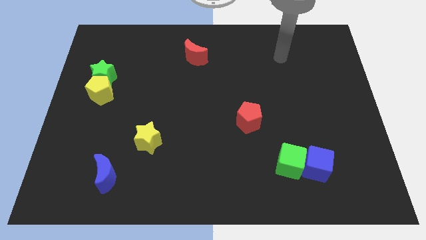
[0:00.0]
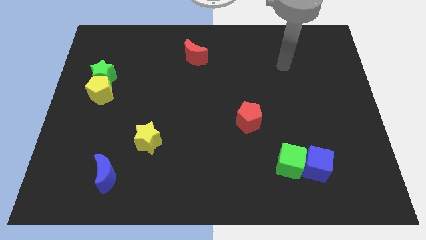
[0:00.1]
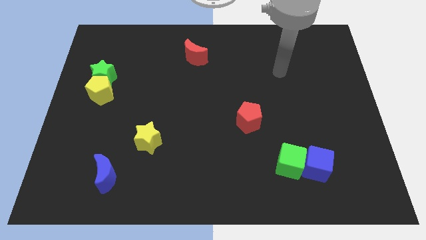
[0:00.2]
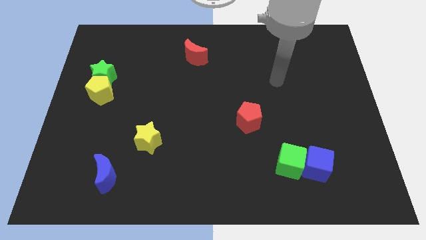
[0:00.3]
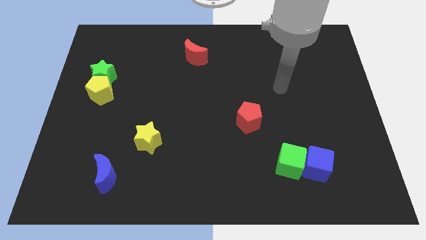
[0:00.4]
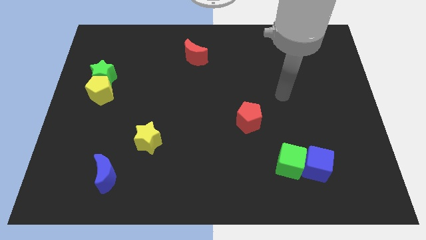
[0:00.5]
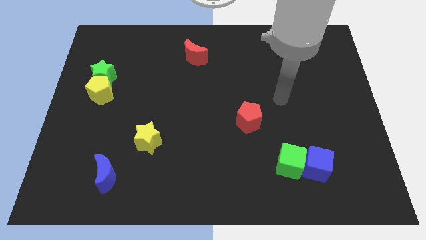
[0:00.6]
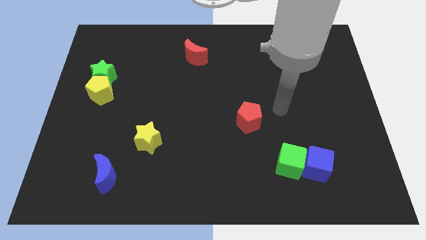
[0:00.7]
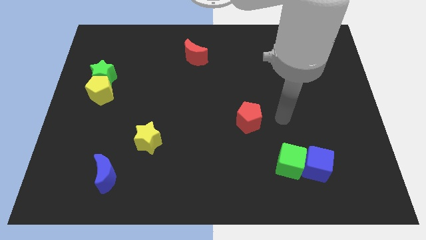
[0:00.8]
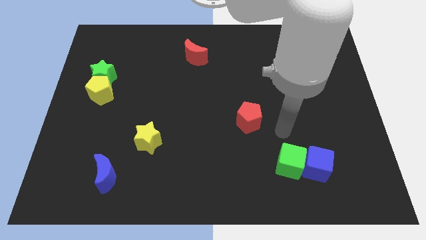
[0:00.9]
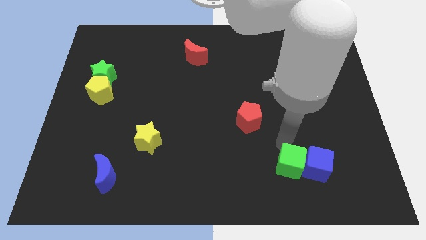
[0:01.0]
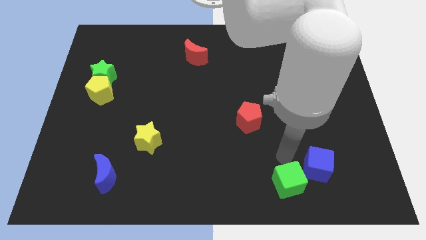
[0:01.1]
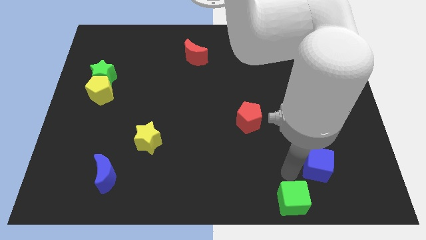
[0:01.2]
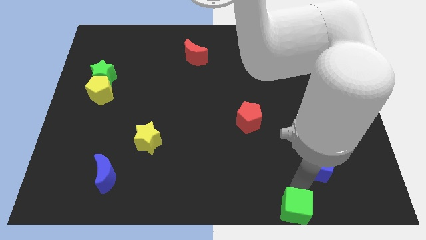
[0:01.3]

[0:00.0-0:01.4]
separate the blue cube from the green cube

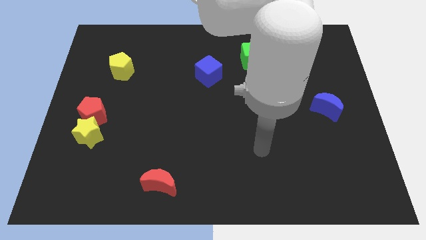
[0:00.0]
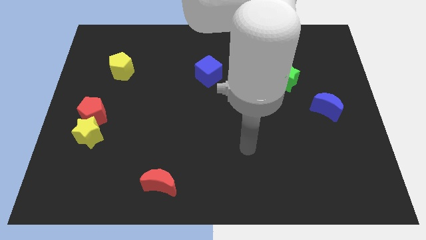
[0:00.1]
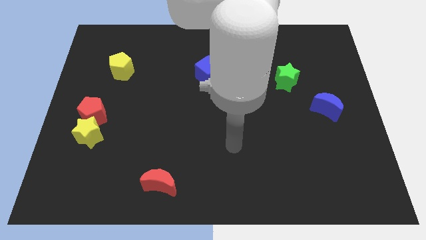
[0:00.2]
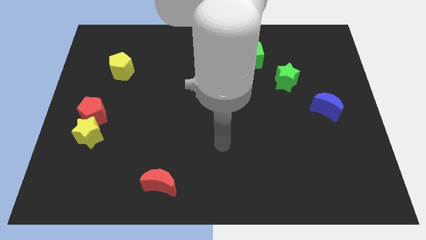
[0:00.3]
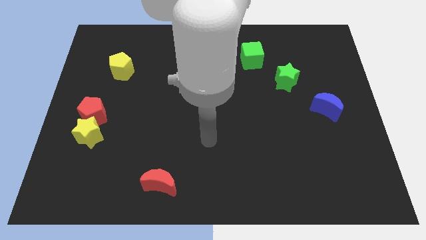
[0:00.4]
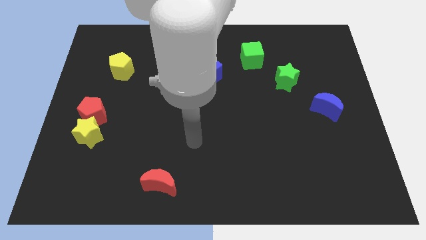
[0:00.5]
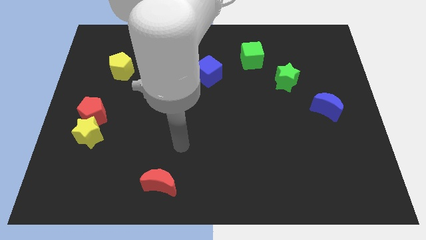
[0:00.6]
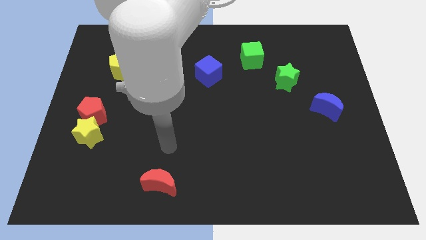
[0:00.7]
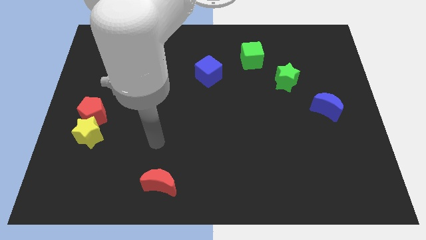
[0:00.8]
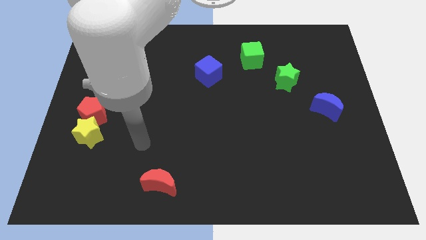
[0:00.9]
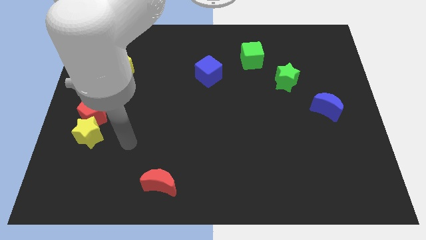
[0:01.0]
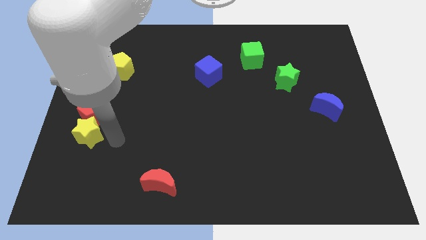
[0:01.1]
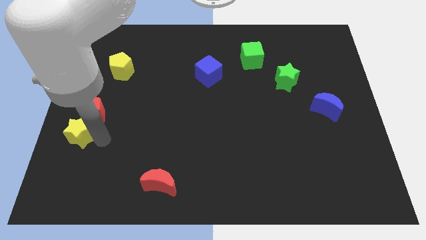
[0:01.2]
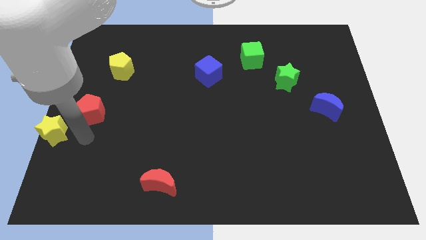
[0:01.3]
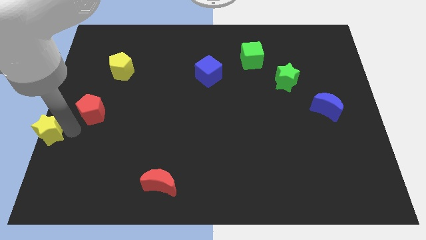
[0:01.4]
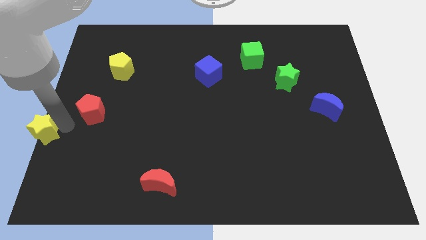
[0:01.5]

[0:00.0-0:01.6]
separate the red pentagon from the yellow star

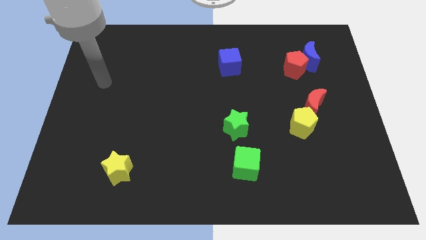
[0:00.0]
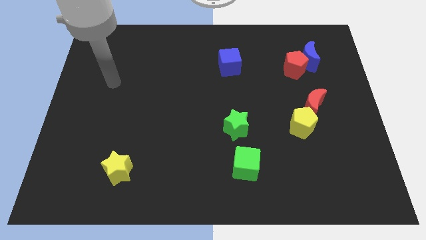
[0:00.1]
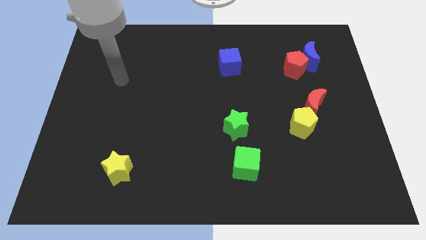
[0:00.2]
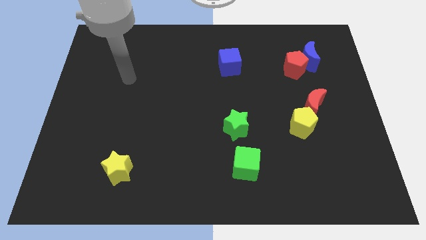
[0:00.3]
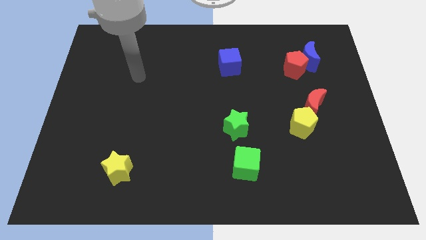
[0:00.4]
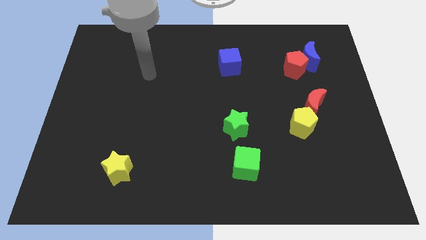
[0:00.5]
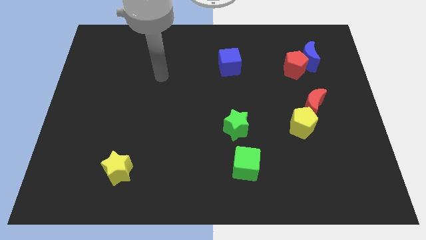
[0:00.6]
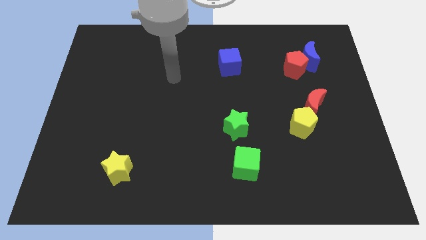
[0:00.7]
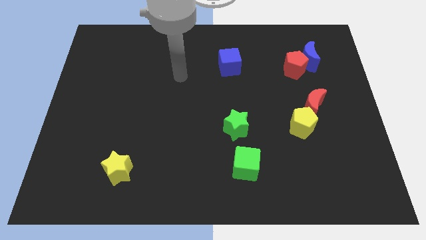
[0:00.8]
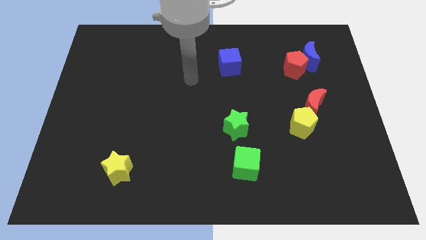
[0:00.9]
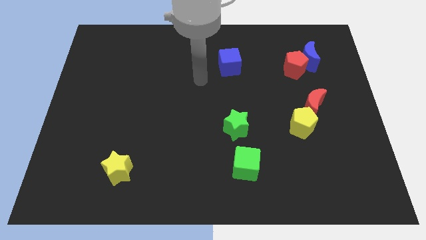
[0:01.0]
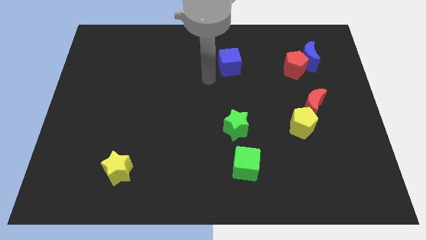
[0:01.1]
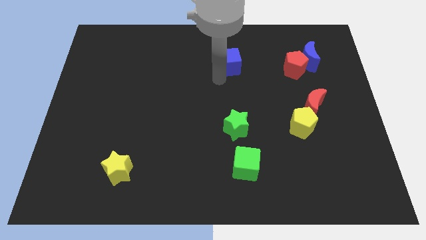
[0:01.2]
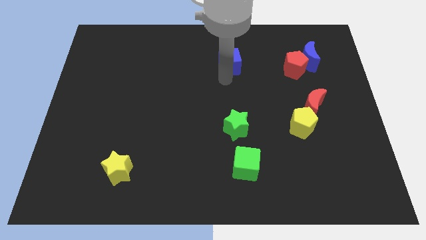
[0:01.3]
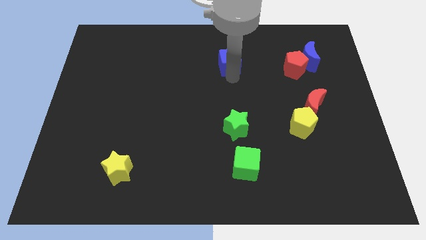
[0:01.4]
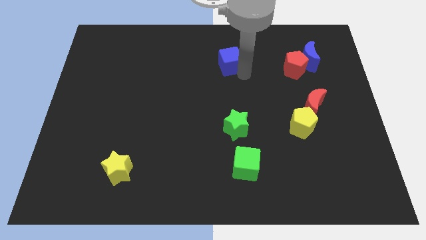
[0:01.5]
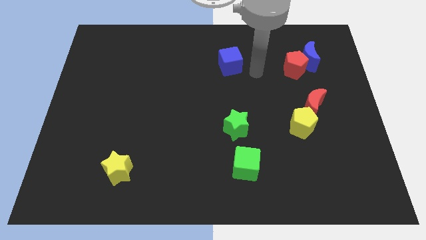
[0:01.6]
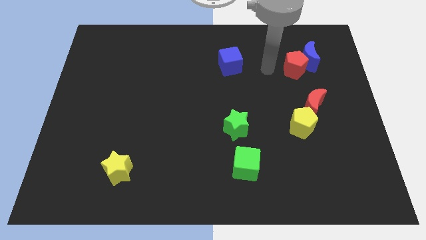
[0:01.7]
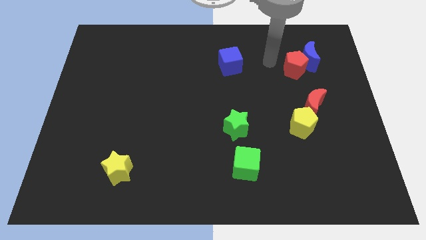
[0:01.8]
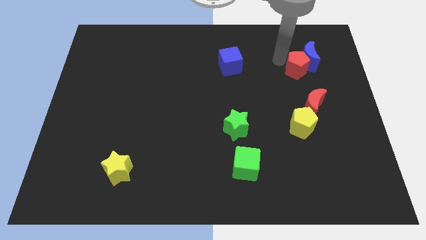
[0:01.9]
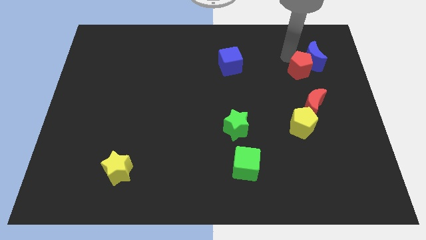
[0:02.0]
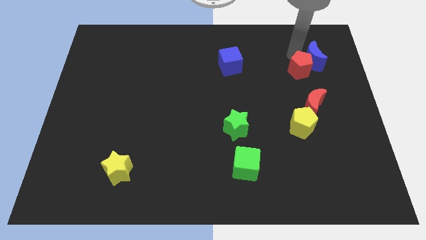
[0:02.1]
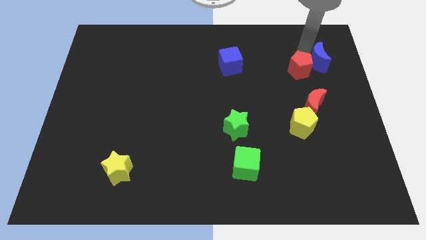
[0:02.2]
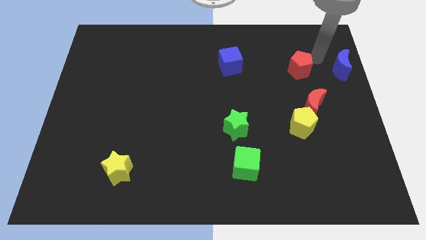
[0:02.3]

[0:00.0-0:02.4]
move the red pentagon away from the blue moon

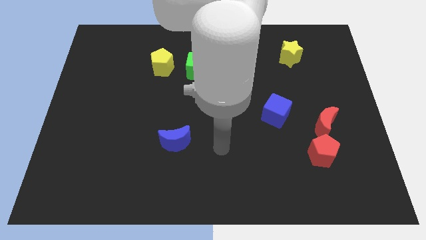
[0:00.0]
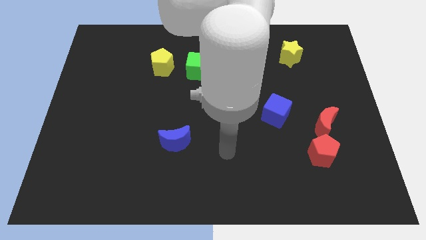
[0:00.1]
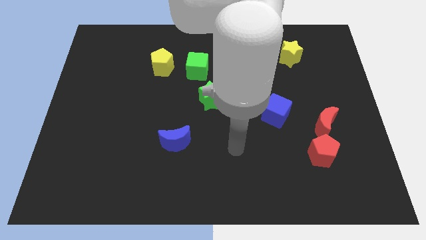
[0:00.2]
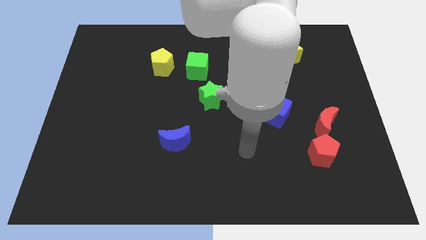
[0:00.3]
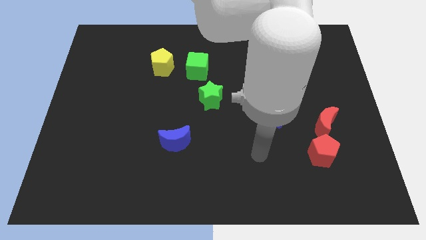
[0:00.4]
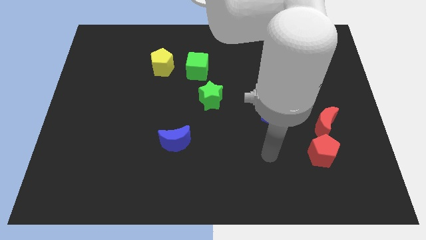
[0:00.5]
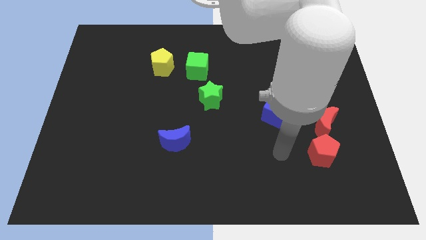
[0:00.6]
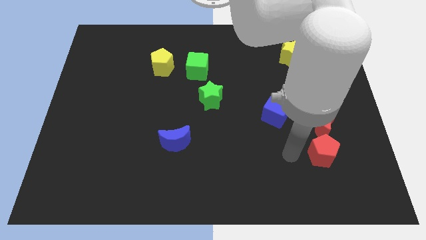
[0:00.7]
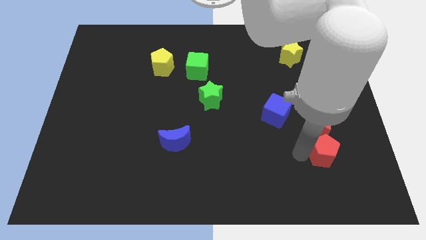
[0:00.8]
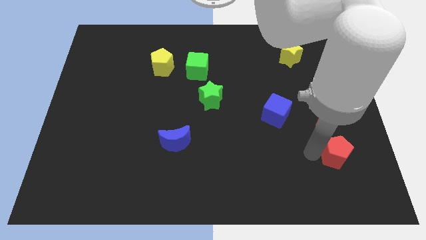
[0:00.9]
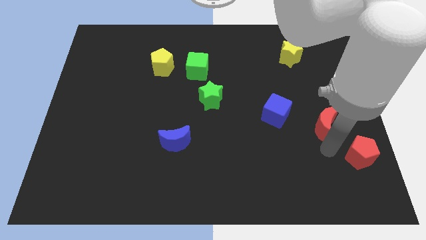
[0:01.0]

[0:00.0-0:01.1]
pull the red moon apart from the red pentagon

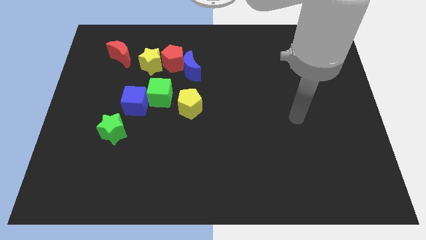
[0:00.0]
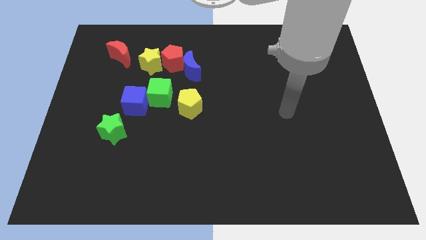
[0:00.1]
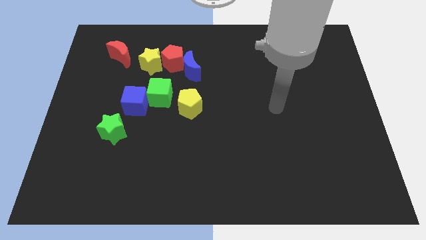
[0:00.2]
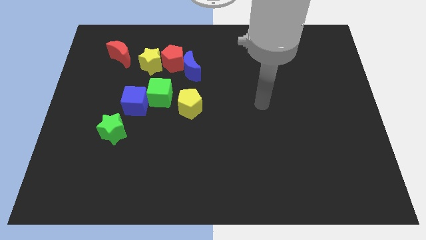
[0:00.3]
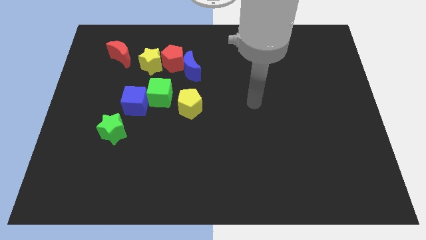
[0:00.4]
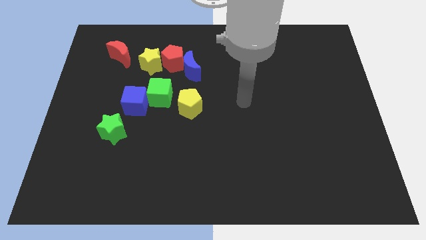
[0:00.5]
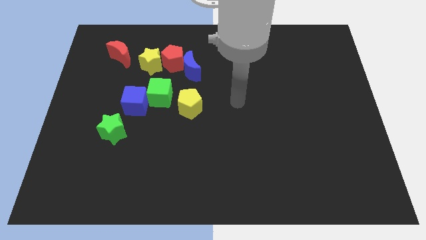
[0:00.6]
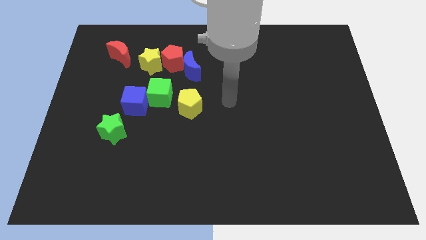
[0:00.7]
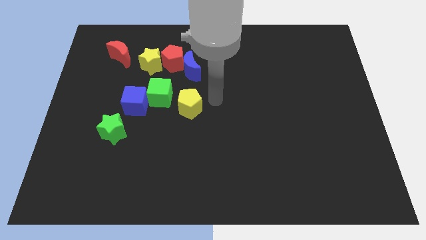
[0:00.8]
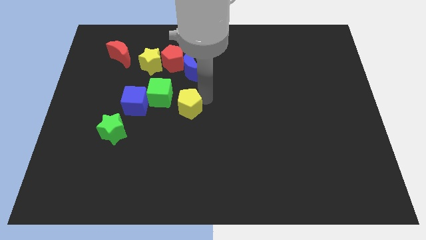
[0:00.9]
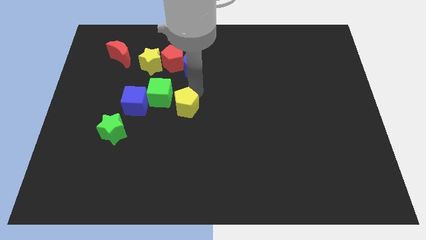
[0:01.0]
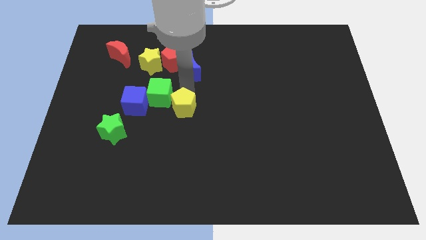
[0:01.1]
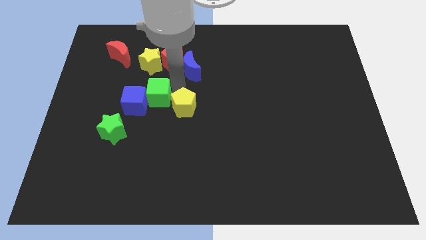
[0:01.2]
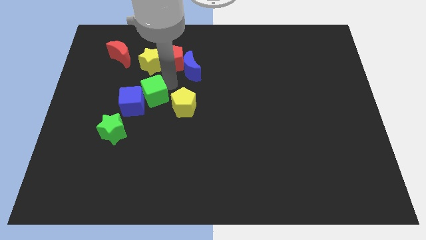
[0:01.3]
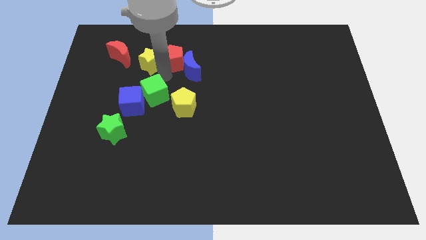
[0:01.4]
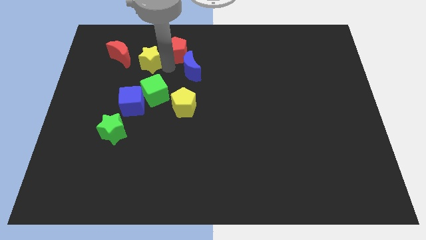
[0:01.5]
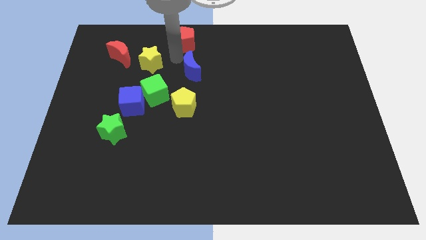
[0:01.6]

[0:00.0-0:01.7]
pull the blue moon apart from the red pentagon

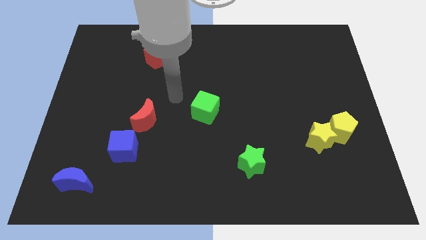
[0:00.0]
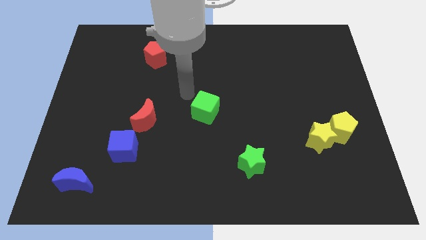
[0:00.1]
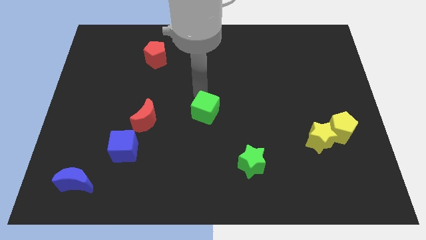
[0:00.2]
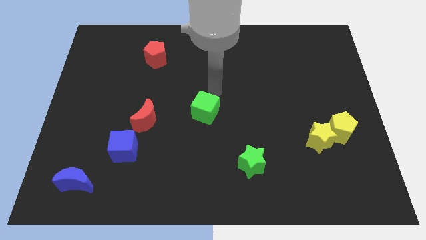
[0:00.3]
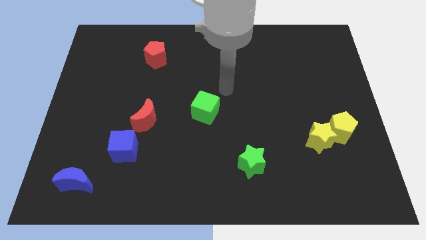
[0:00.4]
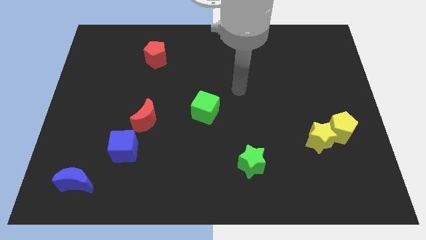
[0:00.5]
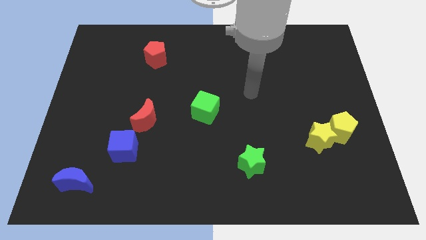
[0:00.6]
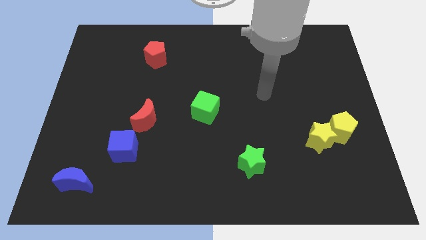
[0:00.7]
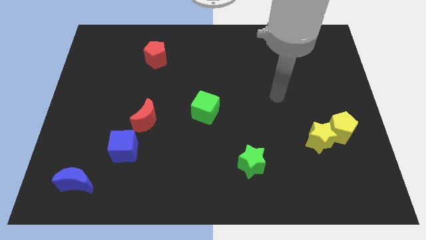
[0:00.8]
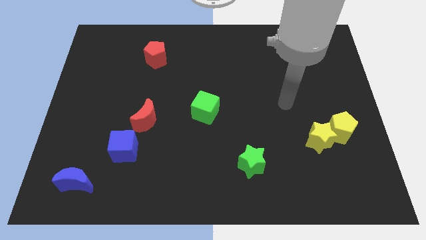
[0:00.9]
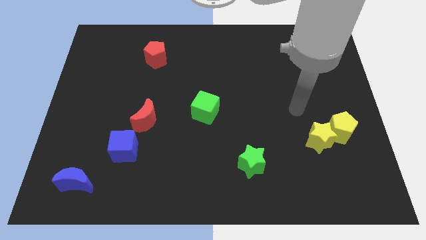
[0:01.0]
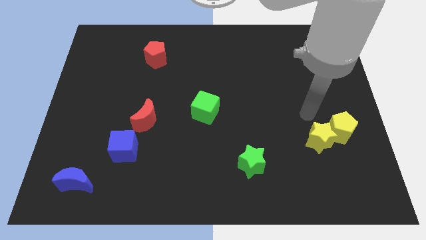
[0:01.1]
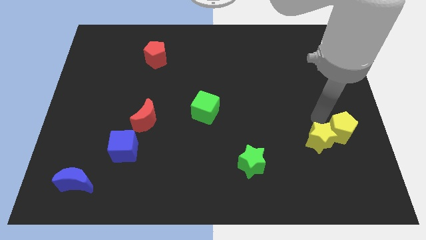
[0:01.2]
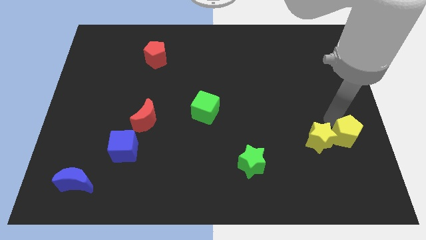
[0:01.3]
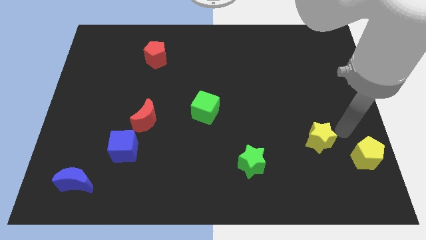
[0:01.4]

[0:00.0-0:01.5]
separate the yellow star from the yellow pentagon
